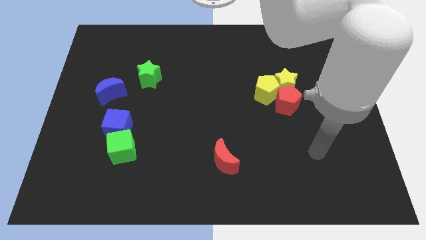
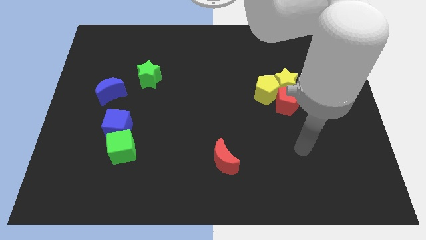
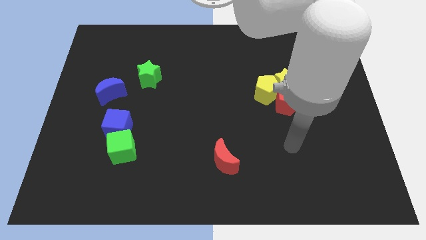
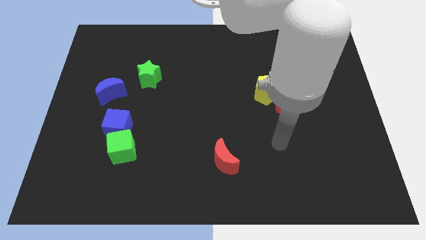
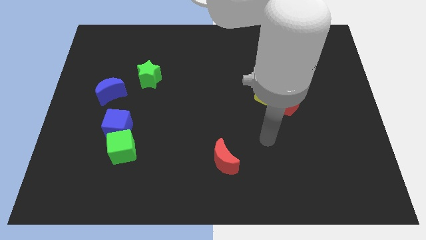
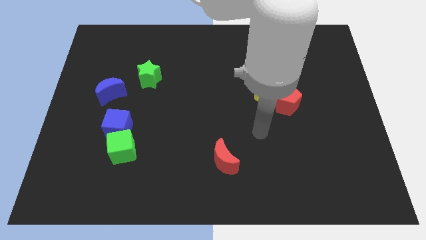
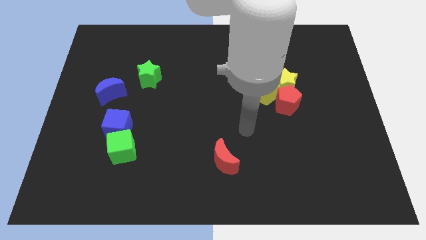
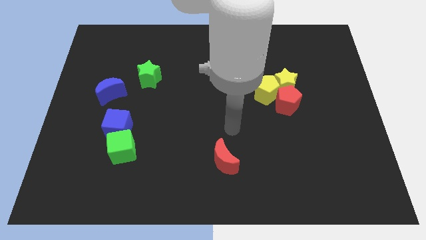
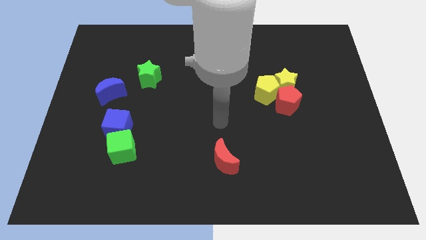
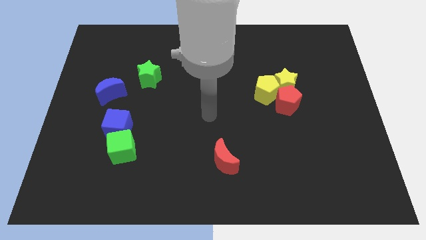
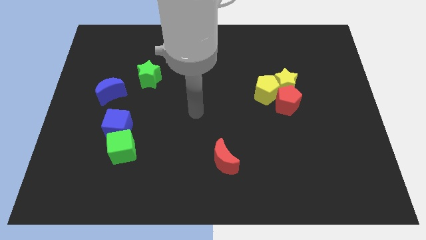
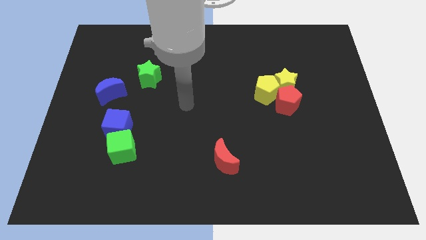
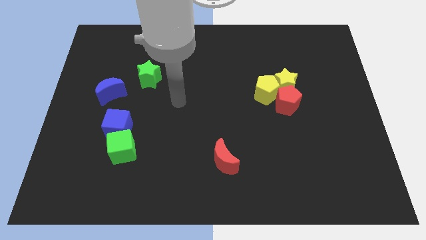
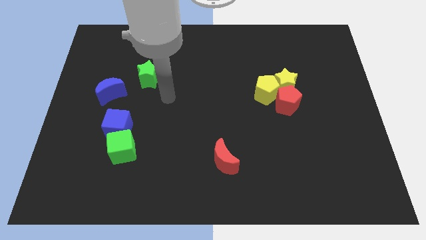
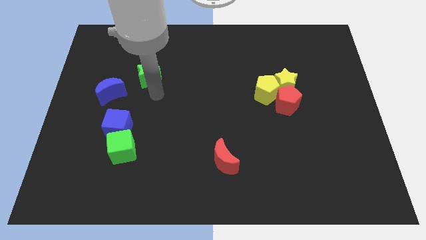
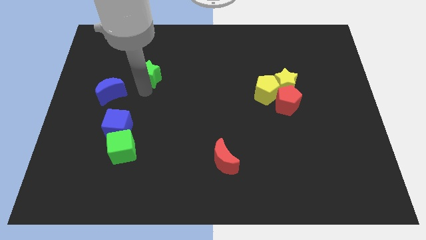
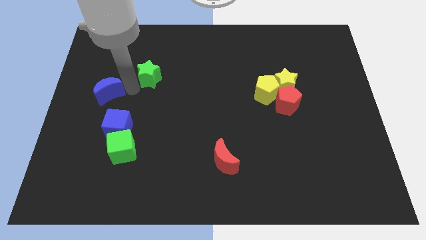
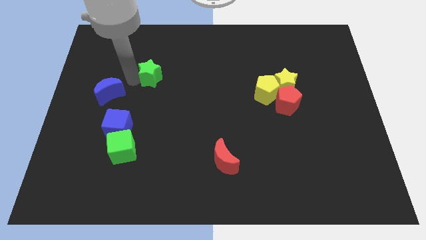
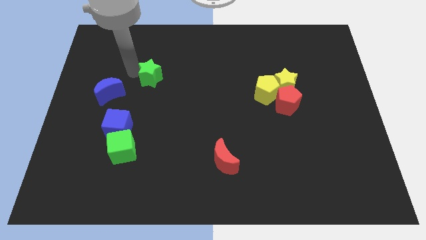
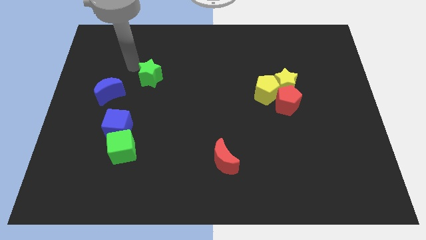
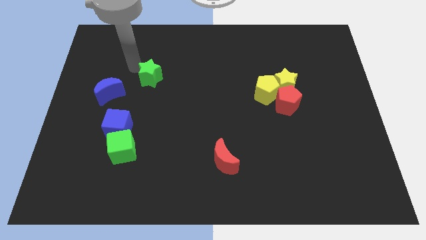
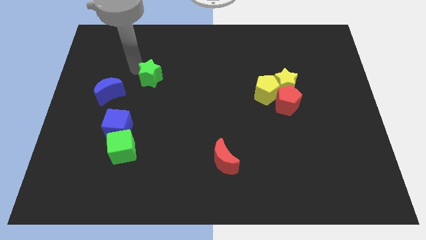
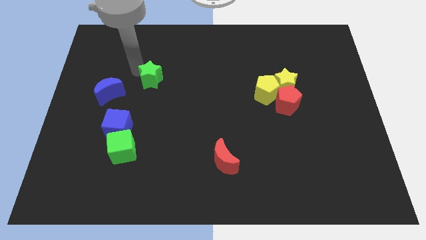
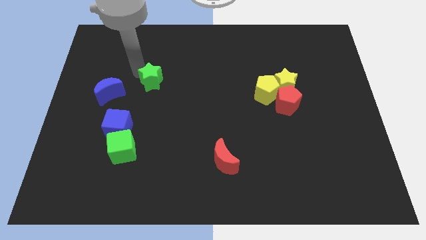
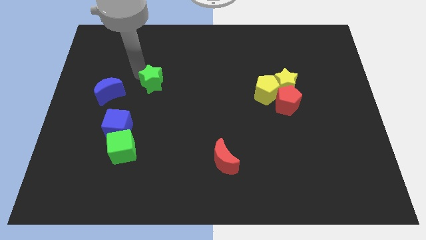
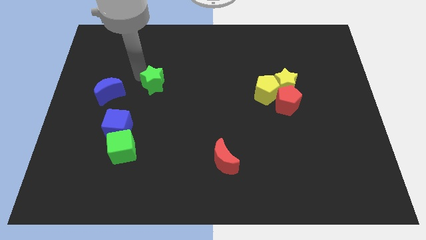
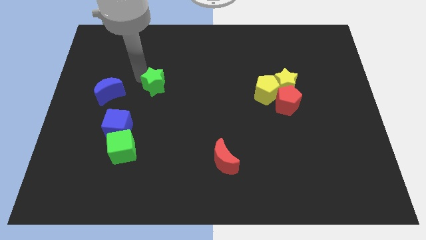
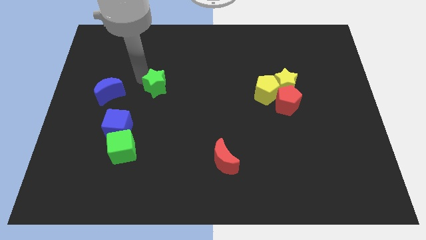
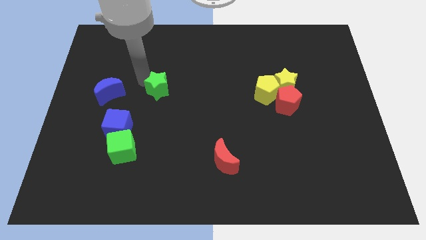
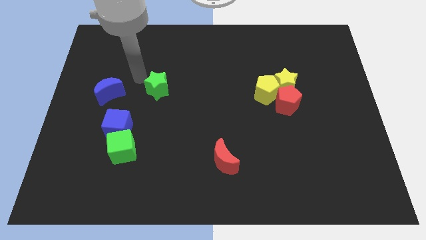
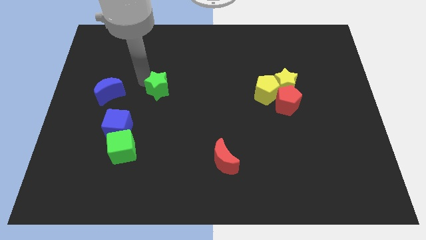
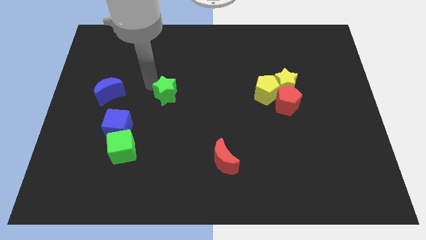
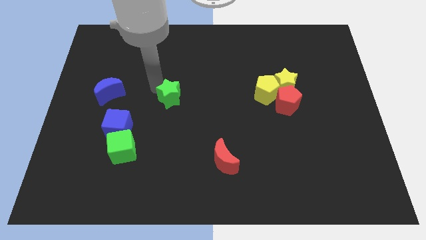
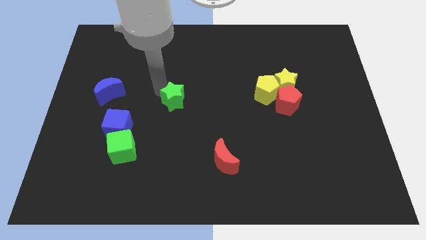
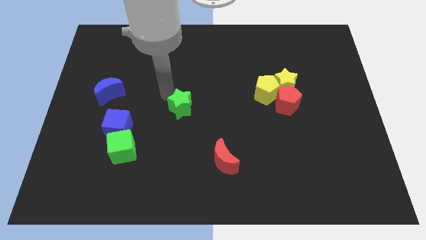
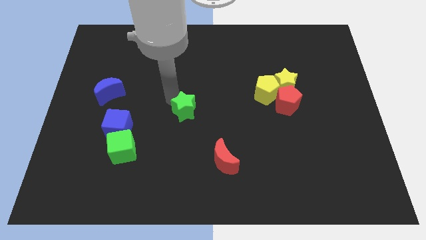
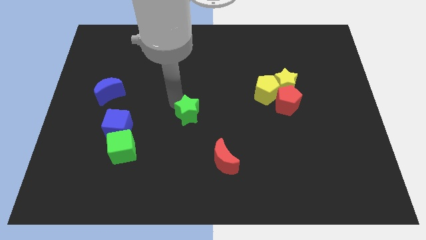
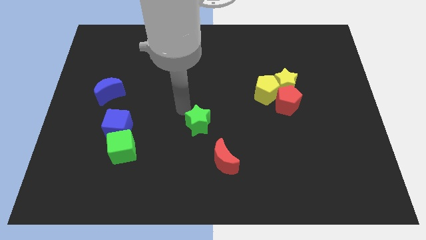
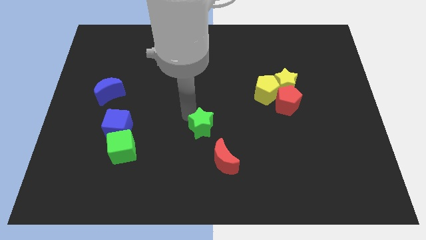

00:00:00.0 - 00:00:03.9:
move the green star down and then to the right

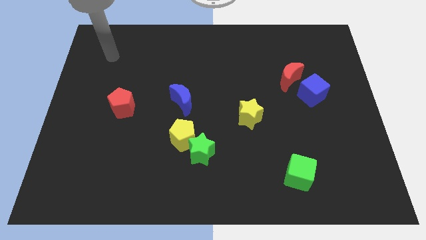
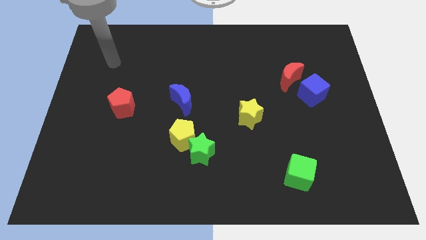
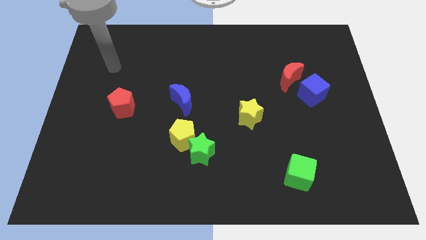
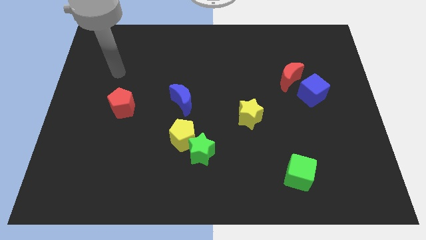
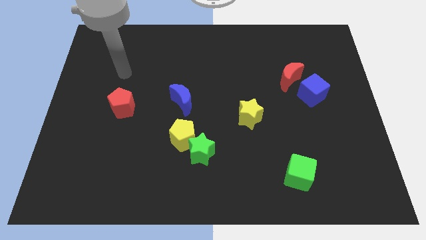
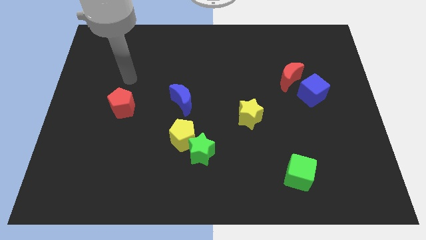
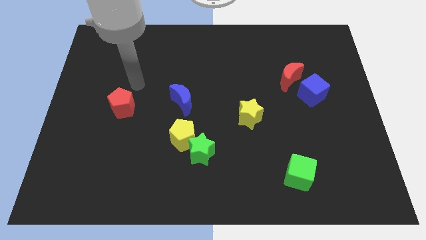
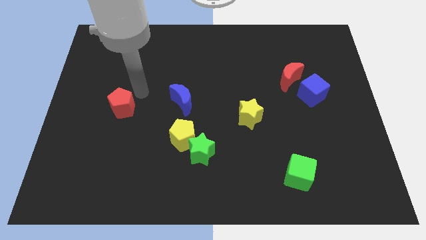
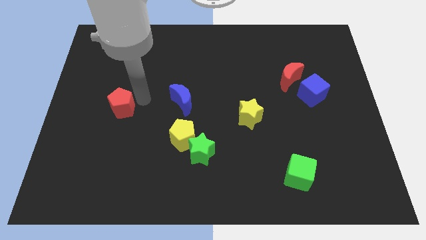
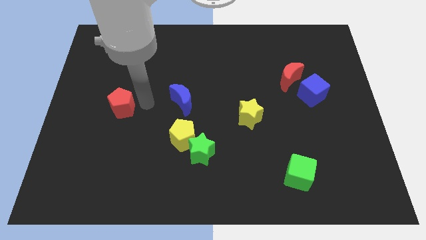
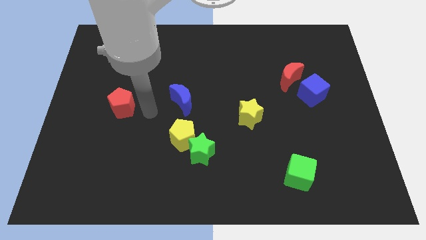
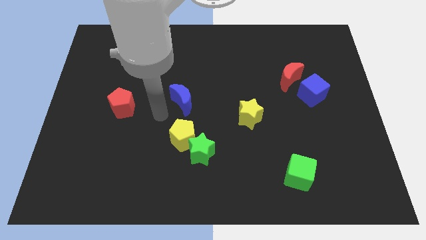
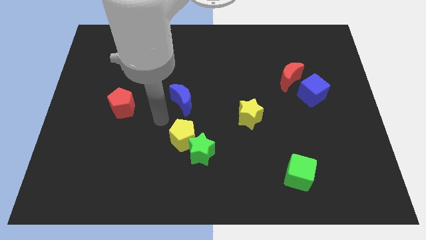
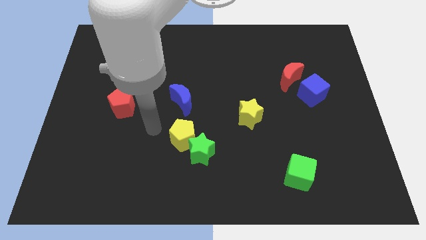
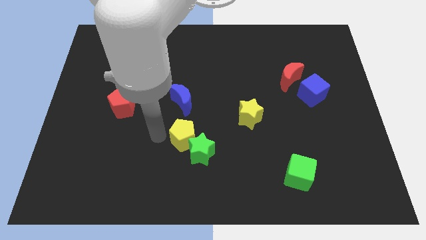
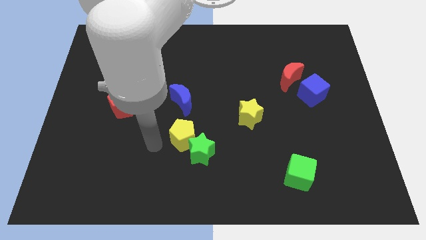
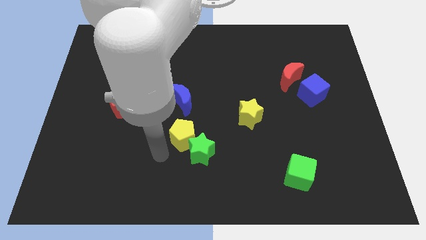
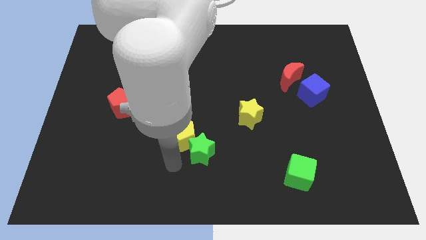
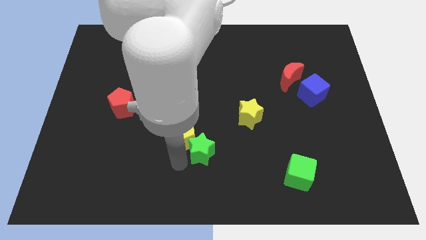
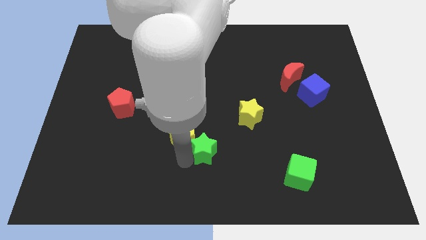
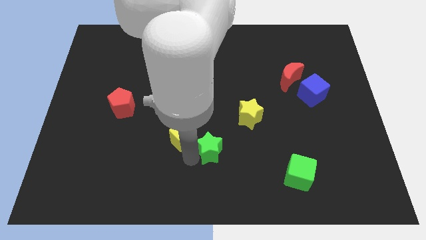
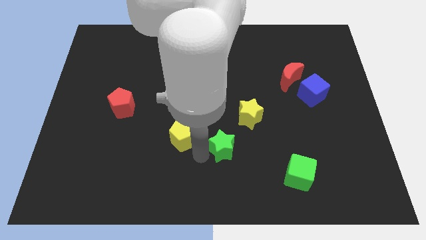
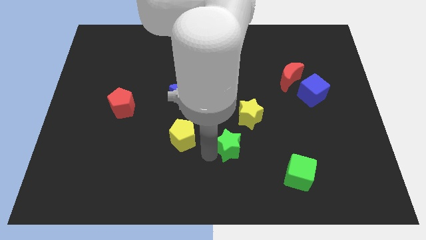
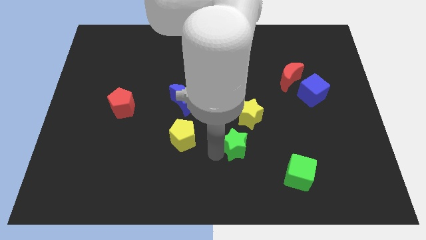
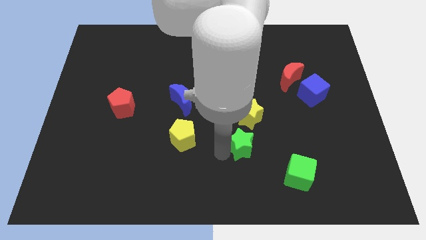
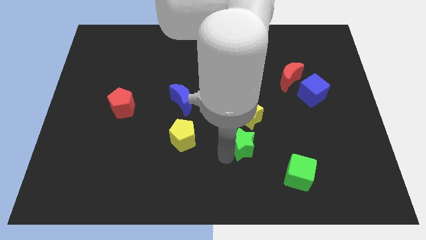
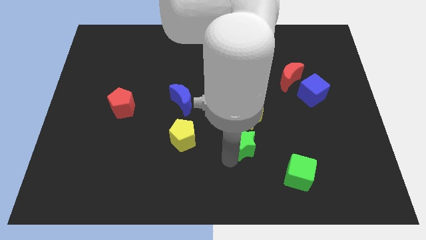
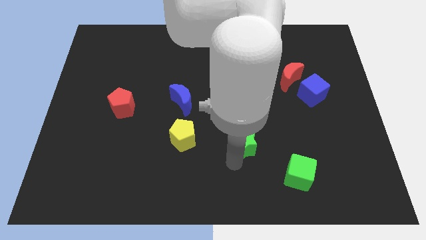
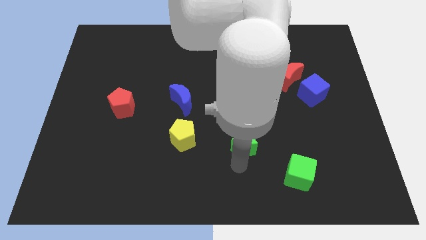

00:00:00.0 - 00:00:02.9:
slide the green star a little bit diagonally up and right

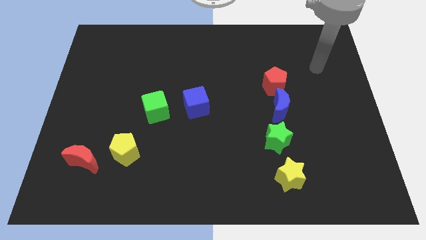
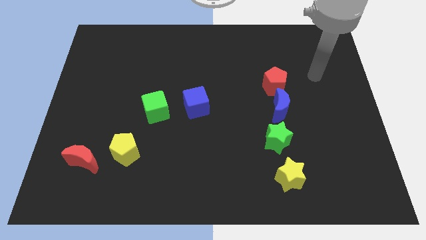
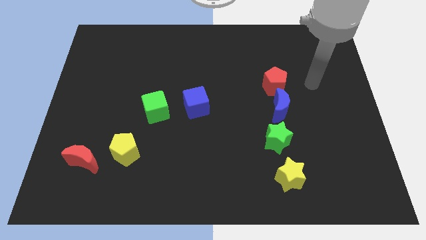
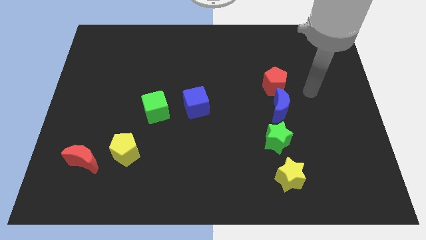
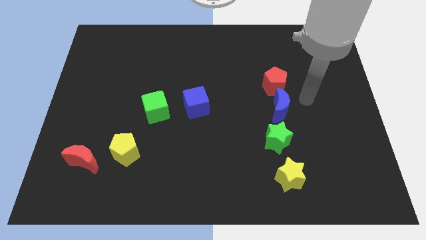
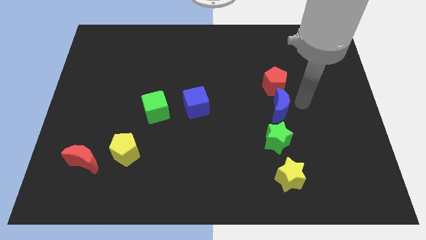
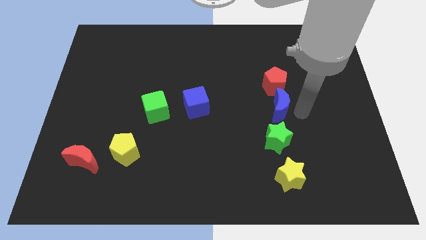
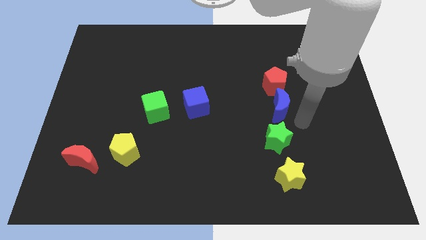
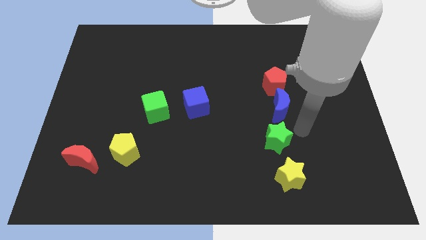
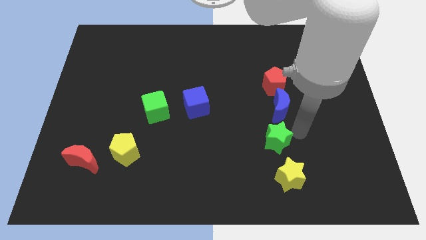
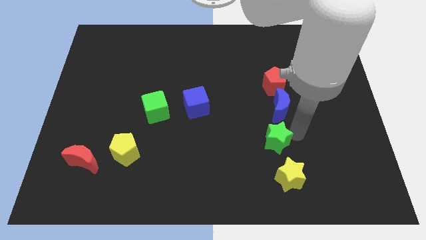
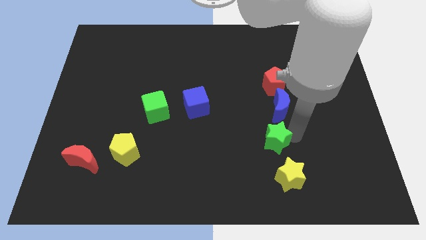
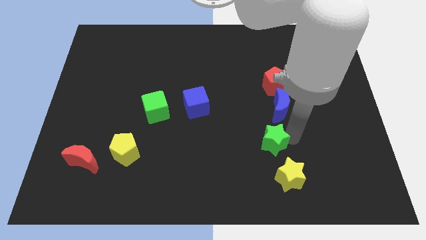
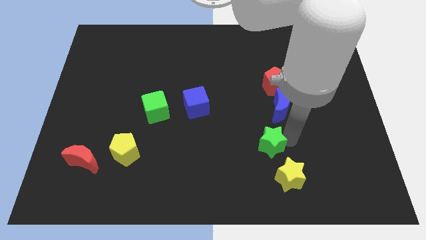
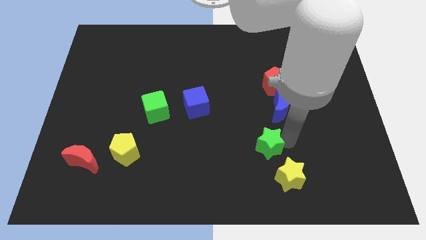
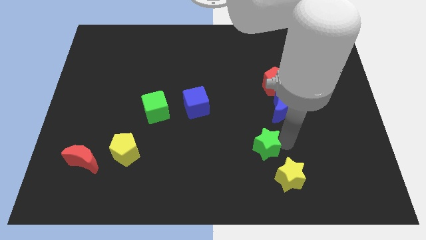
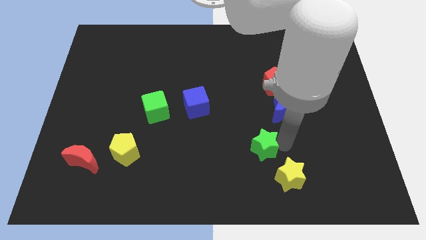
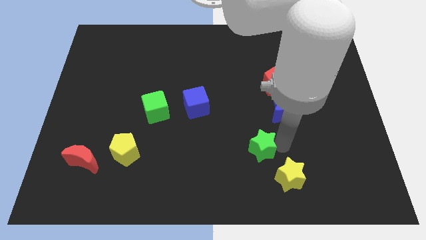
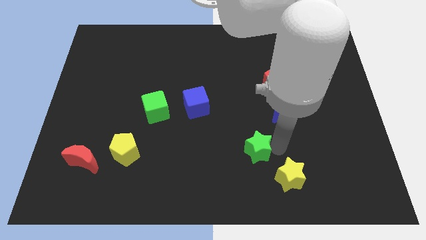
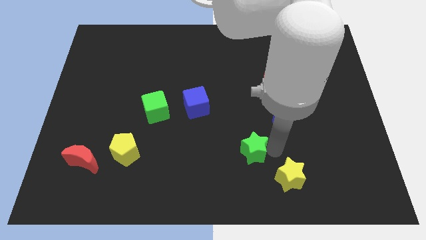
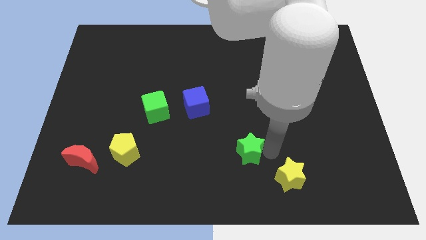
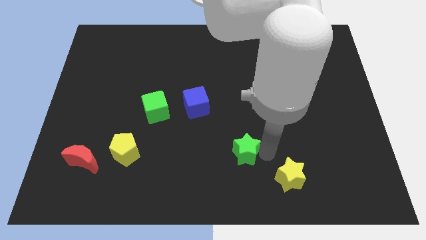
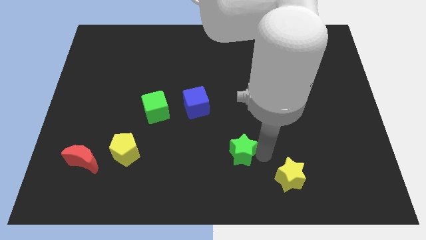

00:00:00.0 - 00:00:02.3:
move the green star left a little
